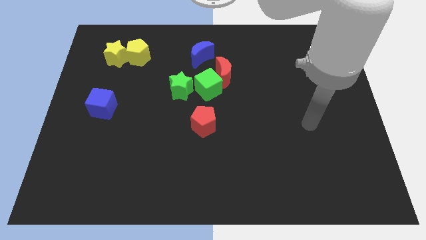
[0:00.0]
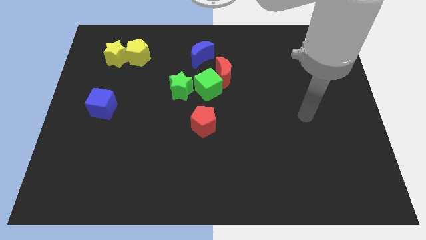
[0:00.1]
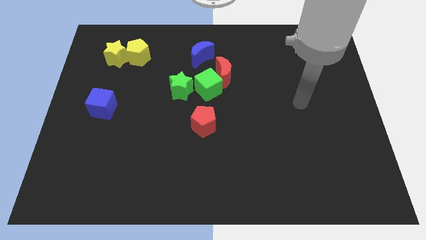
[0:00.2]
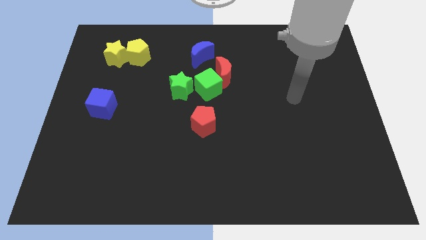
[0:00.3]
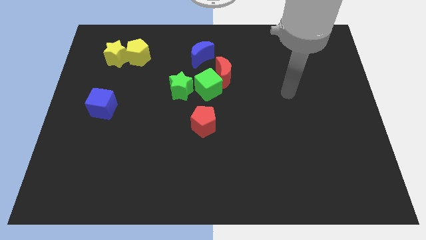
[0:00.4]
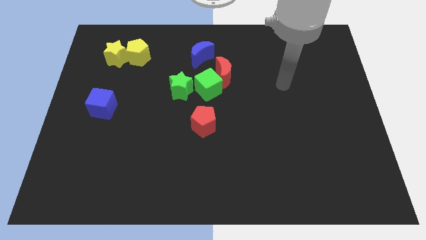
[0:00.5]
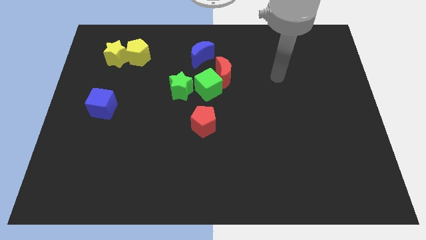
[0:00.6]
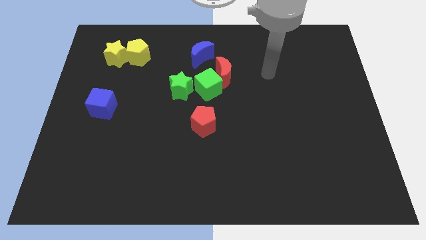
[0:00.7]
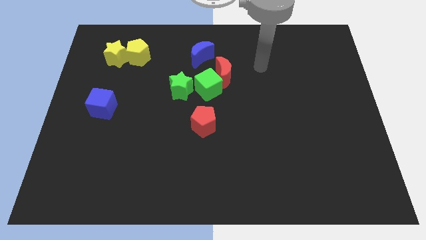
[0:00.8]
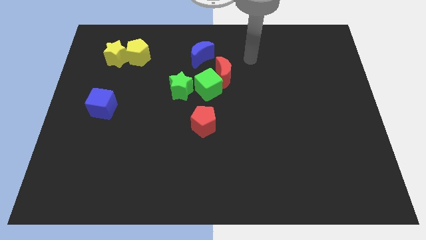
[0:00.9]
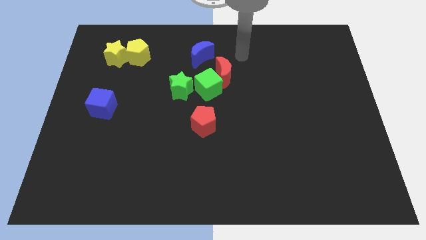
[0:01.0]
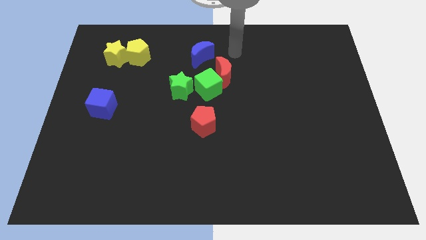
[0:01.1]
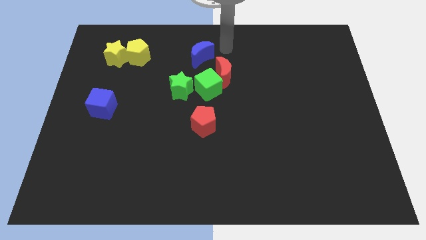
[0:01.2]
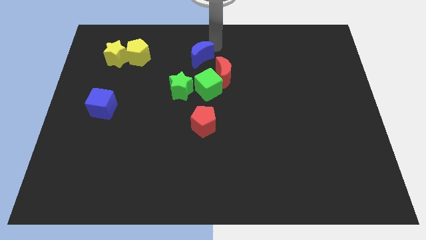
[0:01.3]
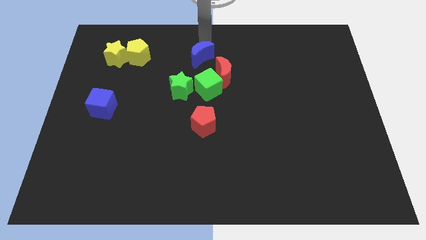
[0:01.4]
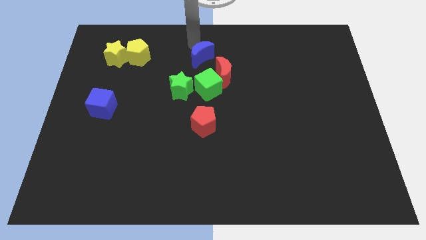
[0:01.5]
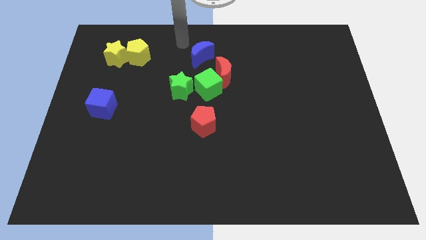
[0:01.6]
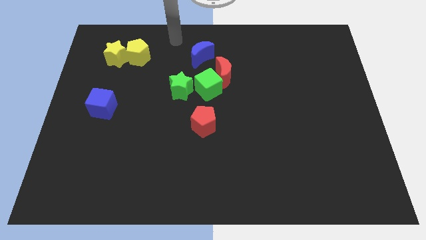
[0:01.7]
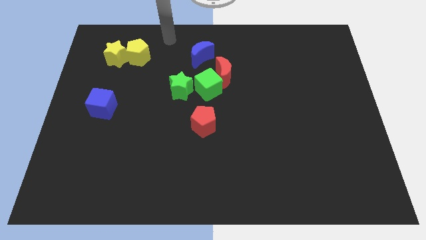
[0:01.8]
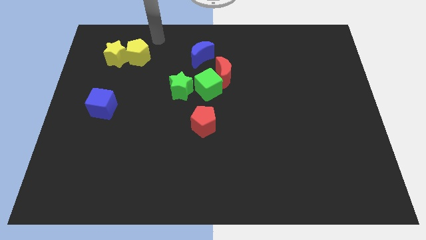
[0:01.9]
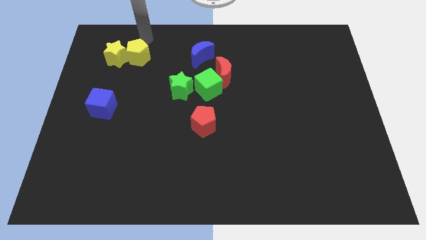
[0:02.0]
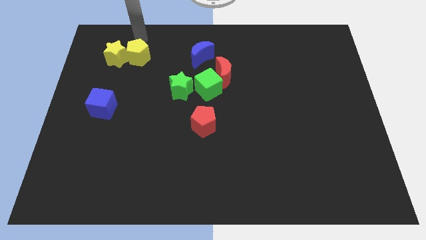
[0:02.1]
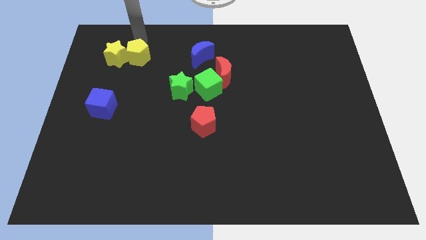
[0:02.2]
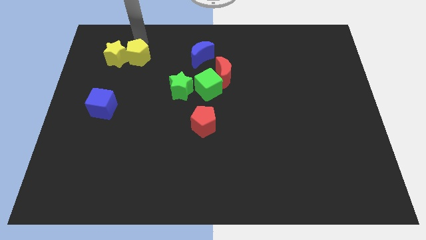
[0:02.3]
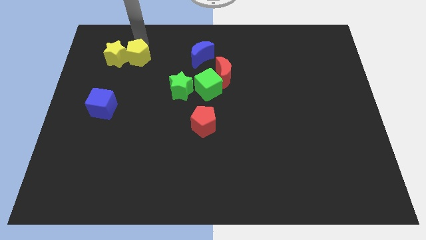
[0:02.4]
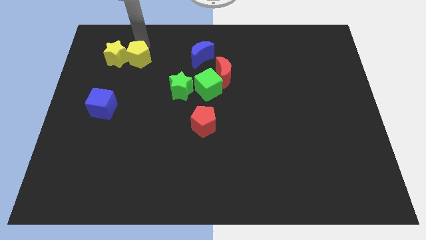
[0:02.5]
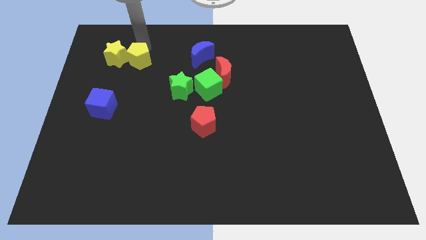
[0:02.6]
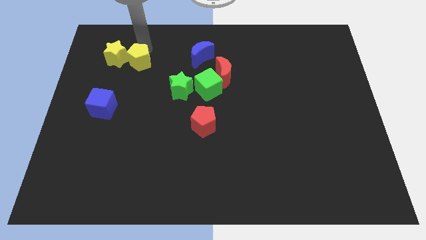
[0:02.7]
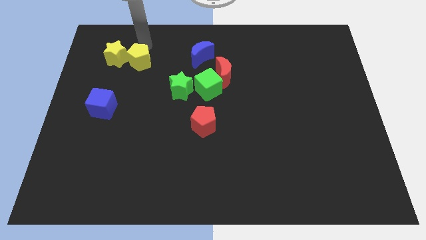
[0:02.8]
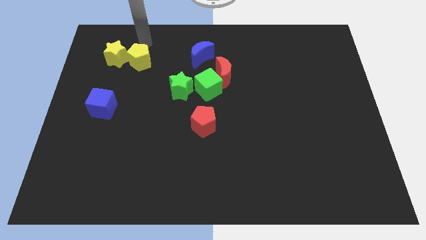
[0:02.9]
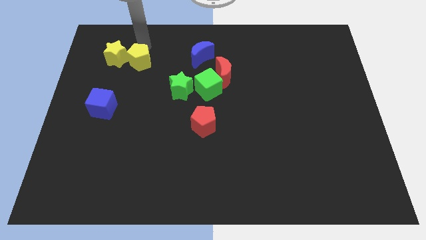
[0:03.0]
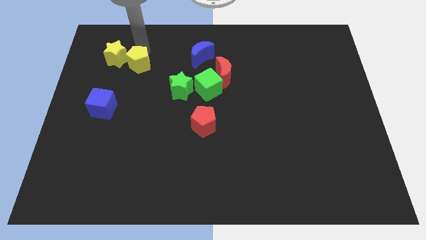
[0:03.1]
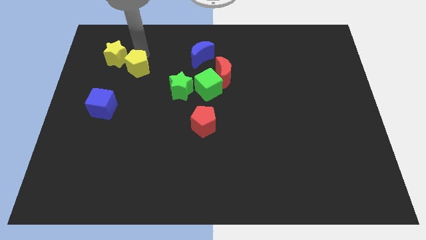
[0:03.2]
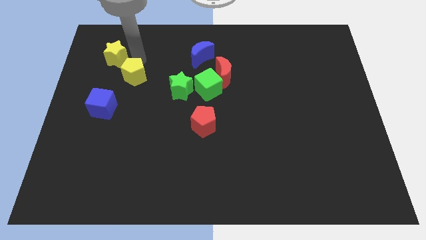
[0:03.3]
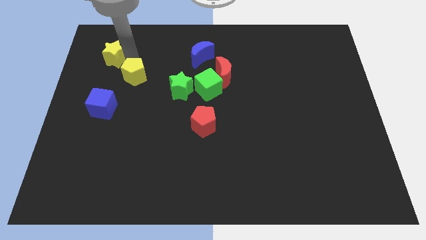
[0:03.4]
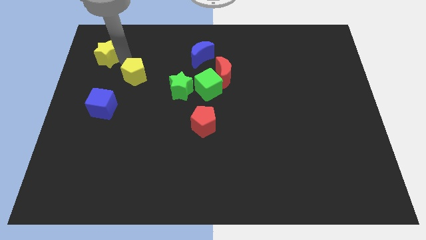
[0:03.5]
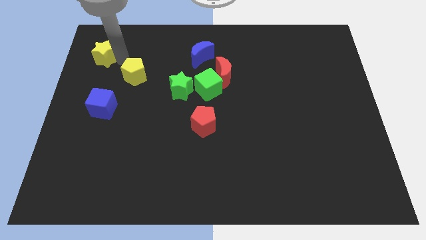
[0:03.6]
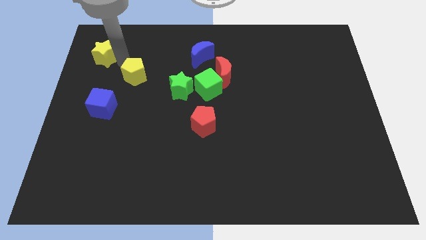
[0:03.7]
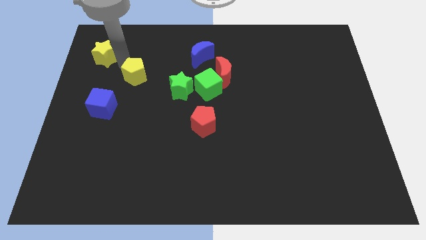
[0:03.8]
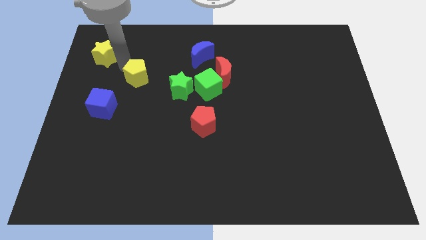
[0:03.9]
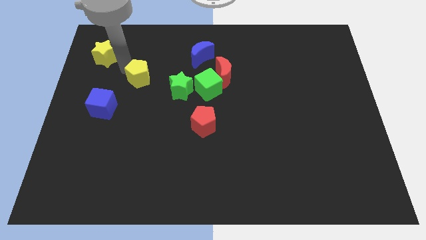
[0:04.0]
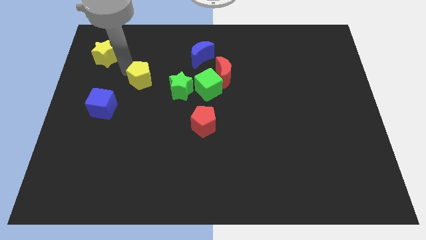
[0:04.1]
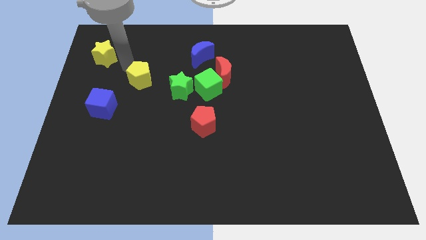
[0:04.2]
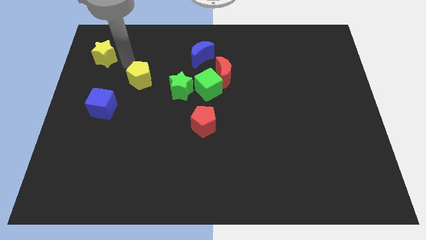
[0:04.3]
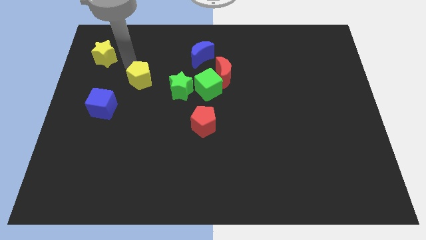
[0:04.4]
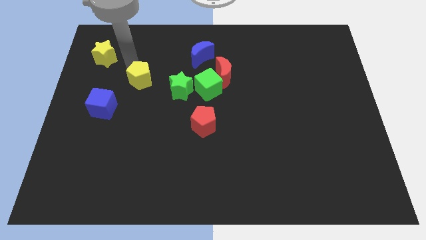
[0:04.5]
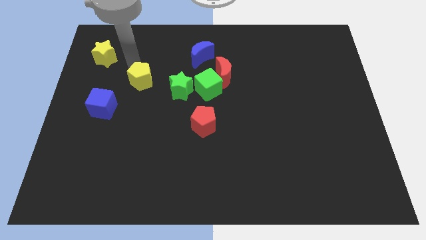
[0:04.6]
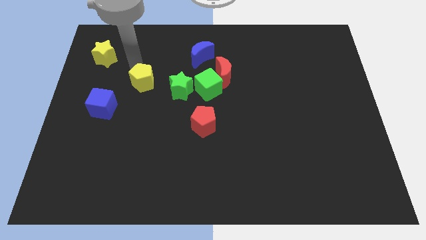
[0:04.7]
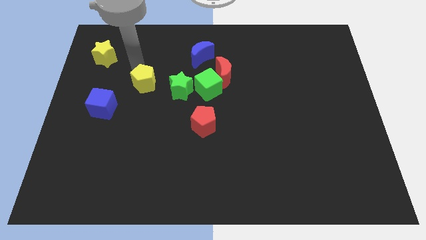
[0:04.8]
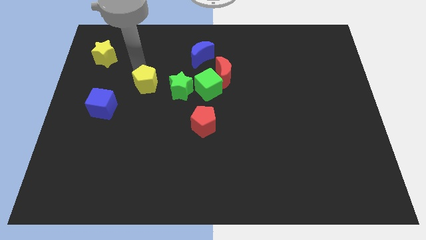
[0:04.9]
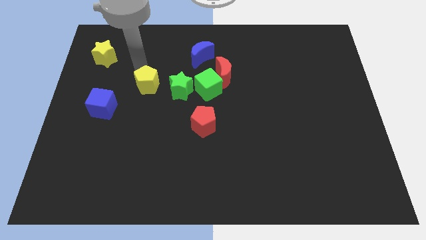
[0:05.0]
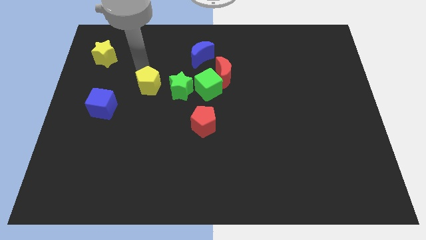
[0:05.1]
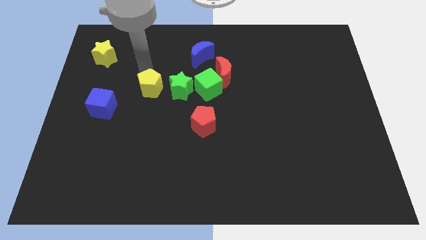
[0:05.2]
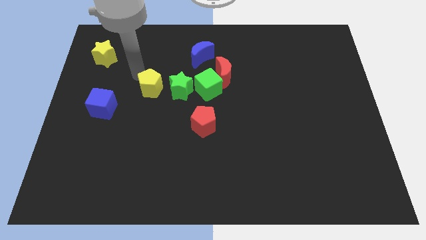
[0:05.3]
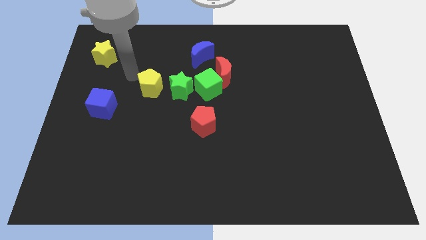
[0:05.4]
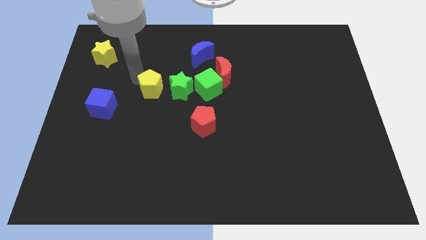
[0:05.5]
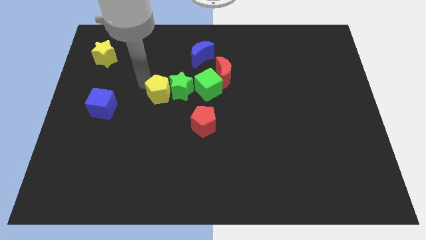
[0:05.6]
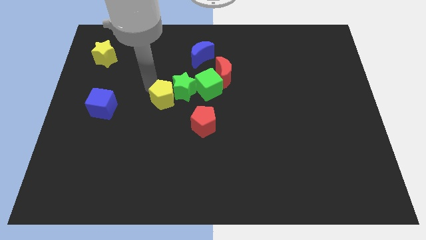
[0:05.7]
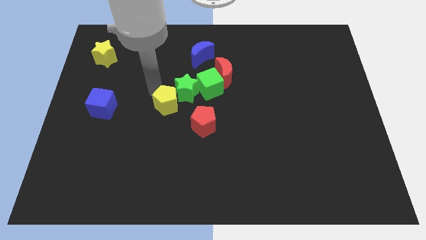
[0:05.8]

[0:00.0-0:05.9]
put the yellow pentagon to the bottom left of the green cube
